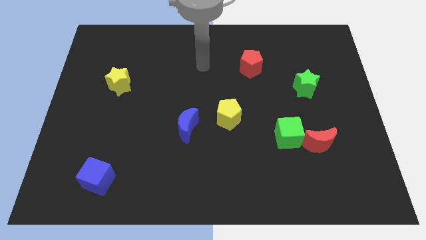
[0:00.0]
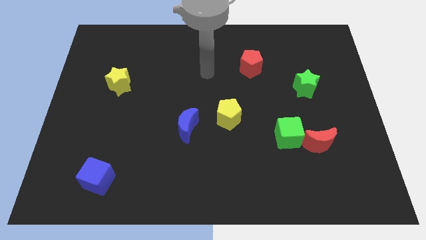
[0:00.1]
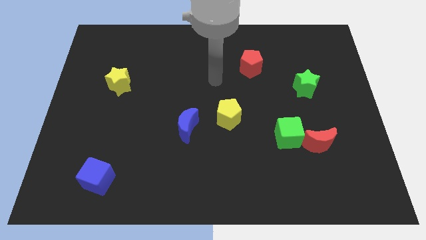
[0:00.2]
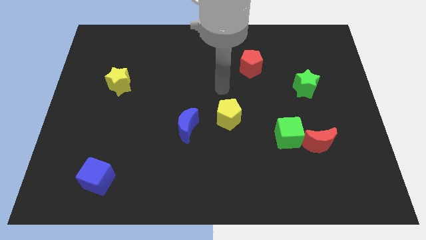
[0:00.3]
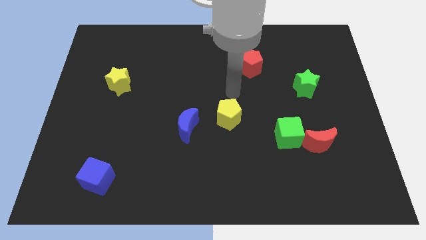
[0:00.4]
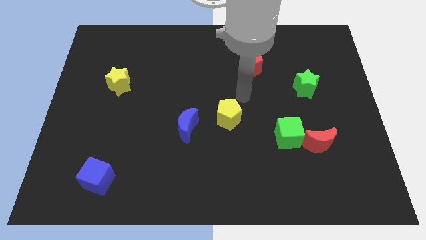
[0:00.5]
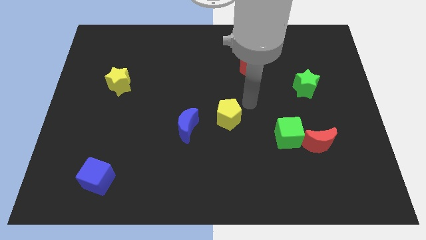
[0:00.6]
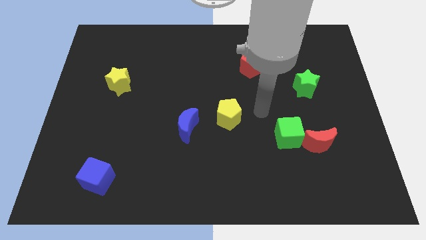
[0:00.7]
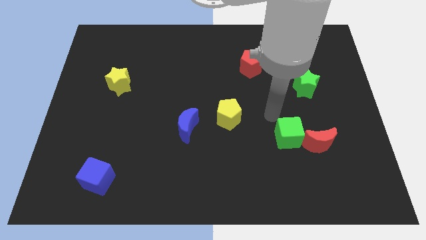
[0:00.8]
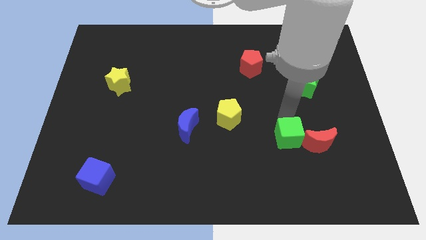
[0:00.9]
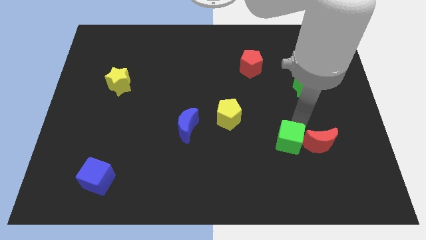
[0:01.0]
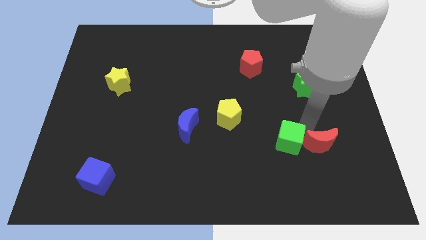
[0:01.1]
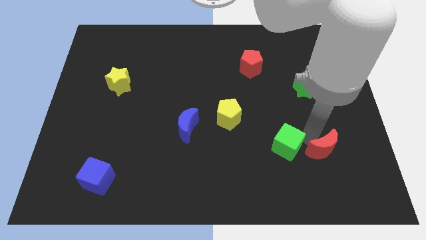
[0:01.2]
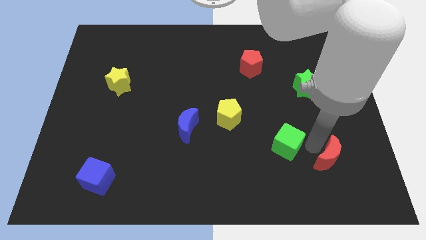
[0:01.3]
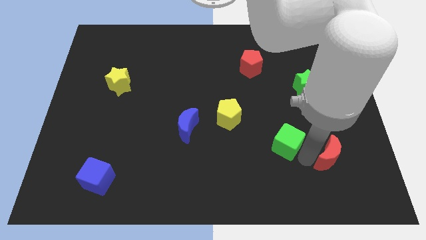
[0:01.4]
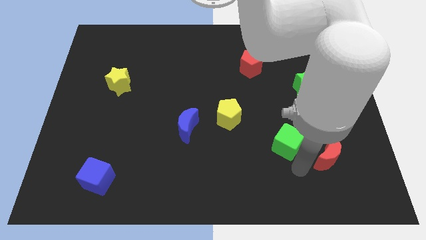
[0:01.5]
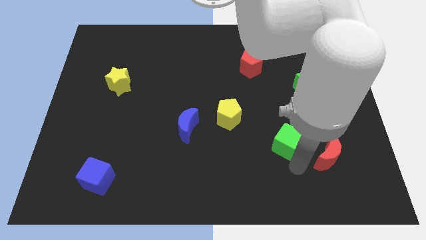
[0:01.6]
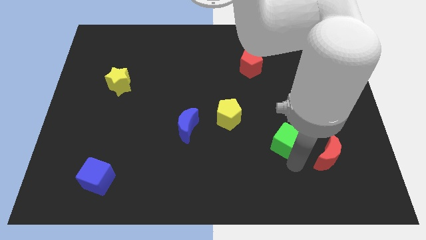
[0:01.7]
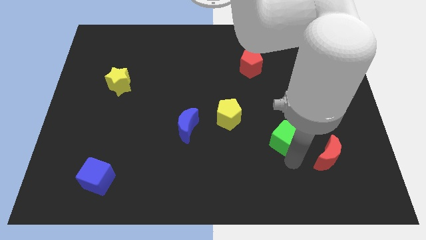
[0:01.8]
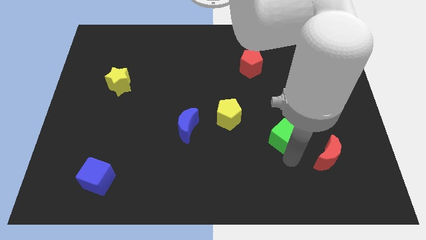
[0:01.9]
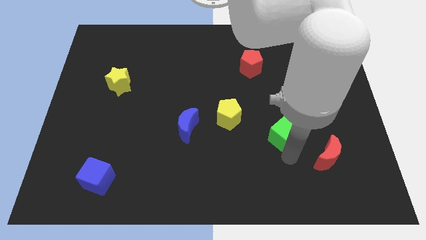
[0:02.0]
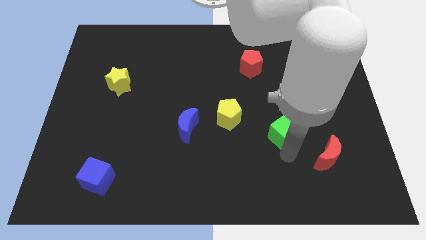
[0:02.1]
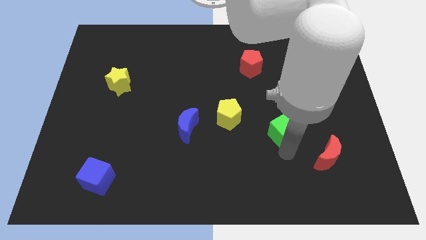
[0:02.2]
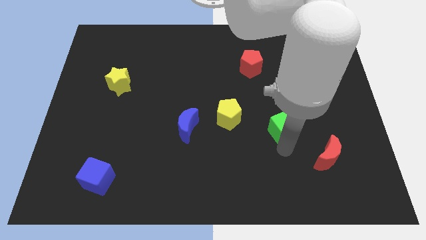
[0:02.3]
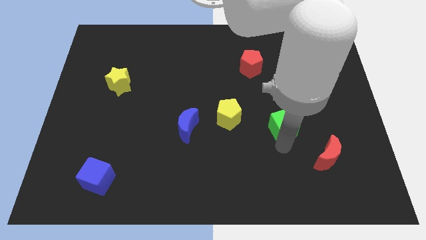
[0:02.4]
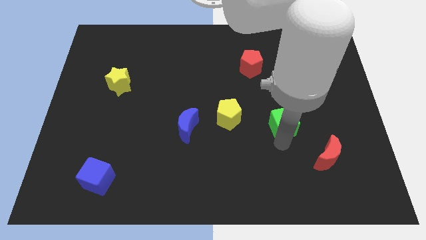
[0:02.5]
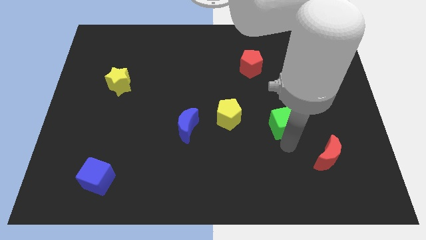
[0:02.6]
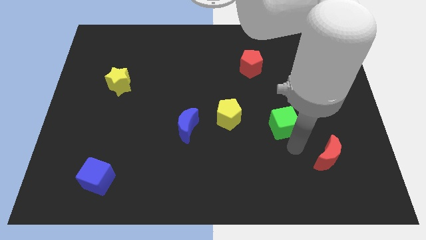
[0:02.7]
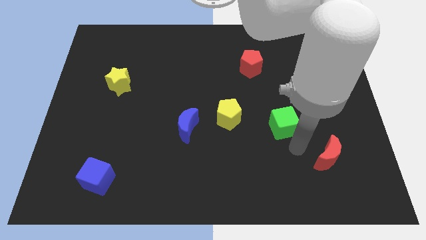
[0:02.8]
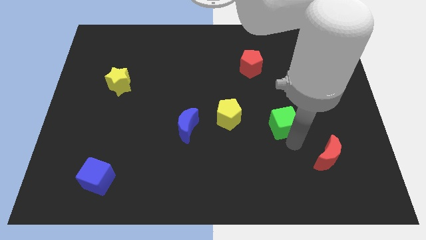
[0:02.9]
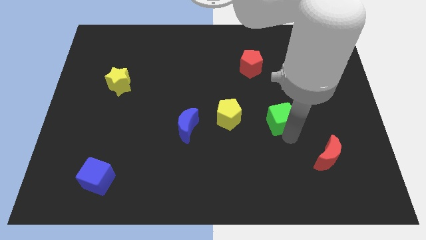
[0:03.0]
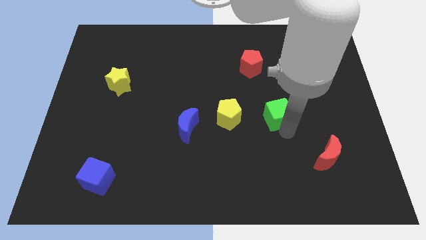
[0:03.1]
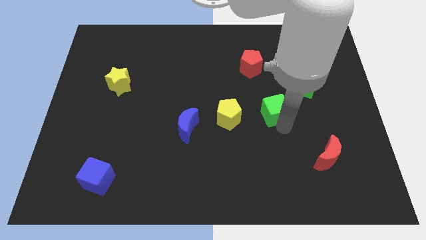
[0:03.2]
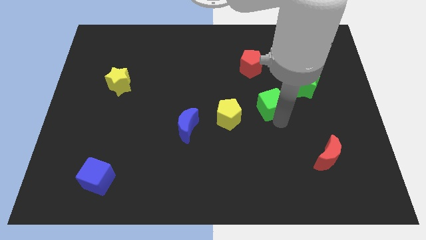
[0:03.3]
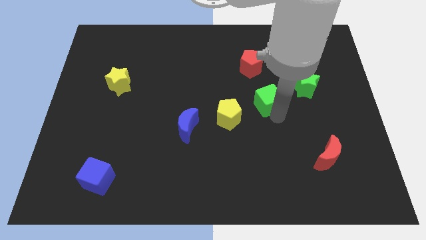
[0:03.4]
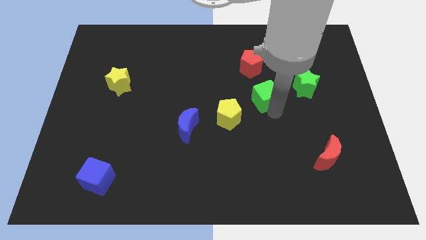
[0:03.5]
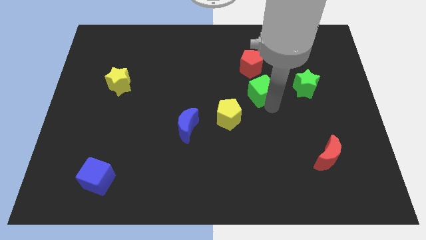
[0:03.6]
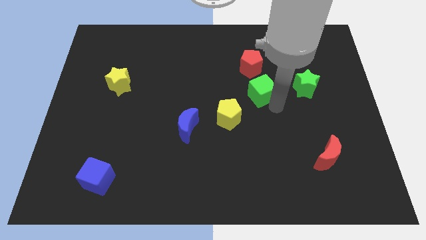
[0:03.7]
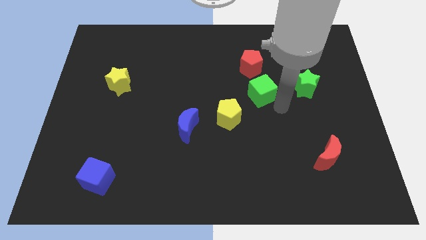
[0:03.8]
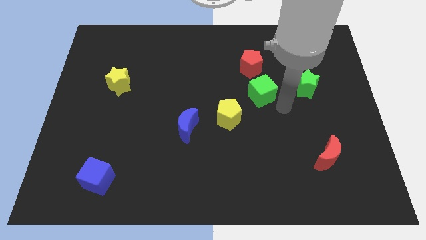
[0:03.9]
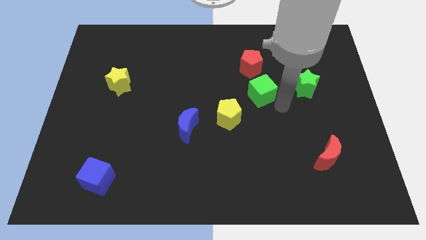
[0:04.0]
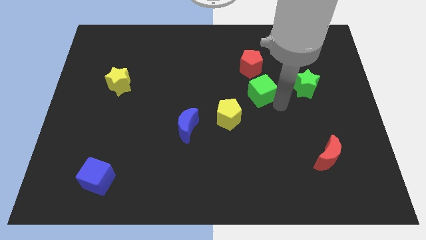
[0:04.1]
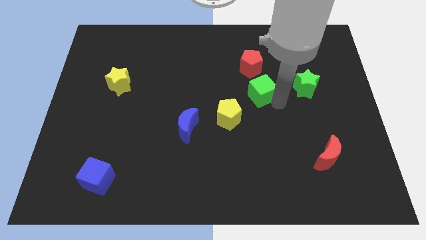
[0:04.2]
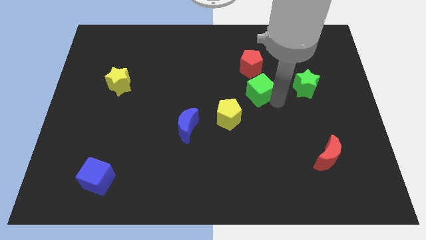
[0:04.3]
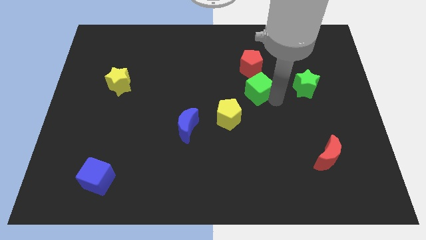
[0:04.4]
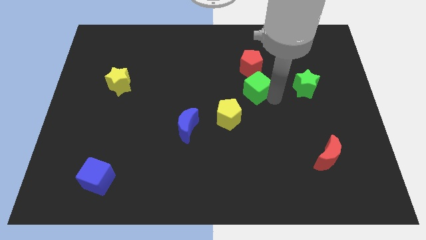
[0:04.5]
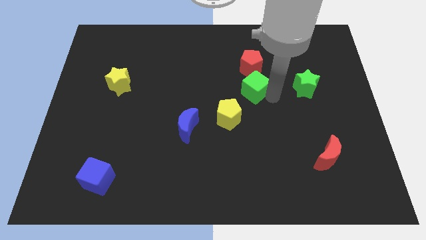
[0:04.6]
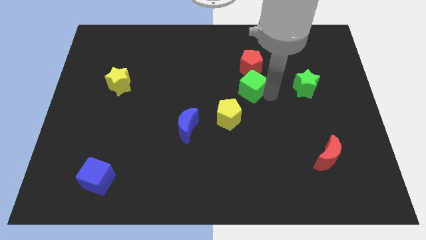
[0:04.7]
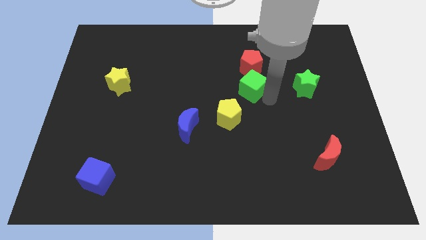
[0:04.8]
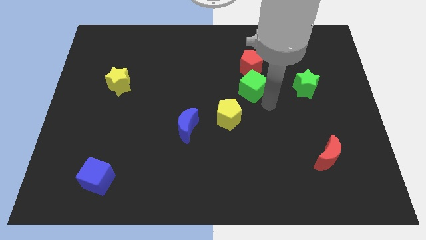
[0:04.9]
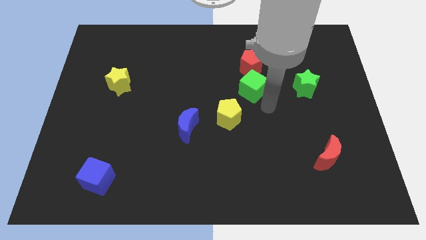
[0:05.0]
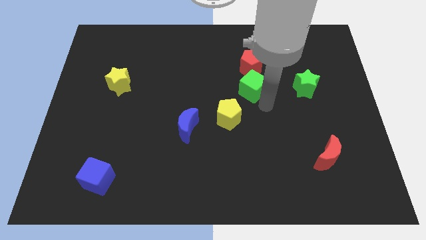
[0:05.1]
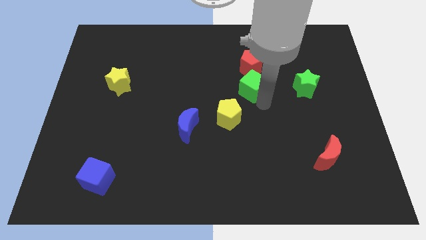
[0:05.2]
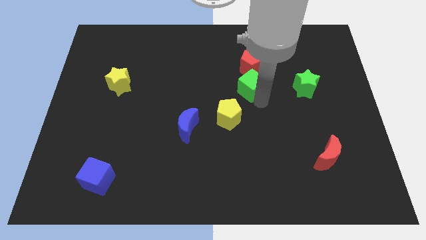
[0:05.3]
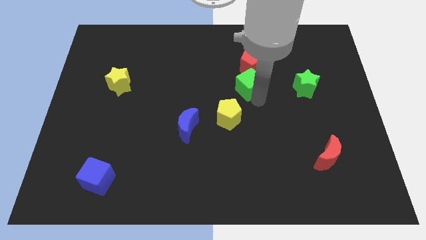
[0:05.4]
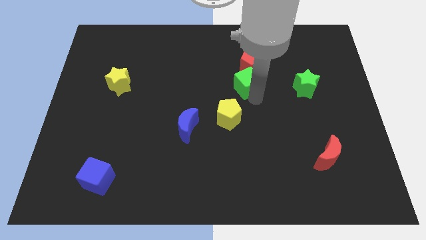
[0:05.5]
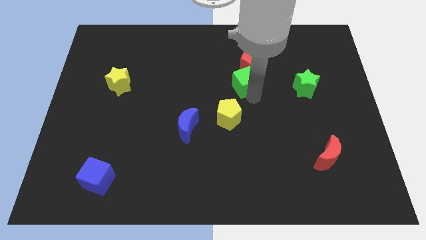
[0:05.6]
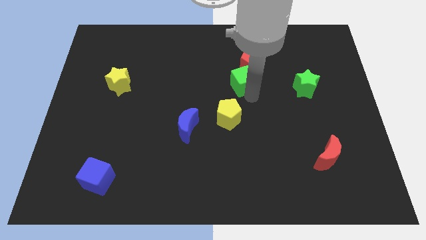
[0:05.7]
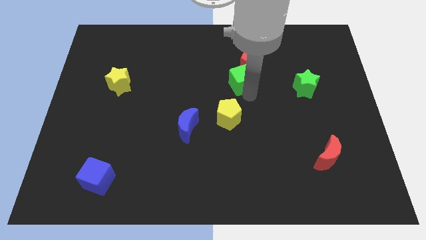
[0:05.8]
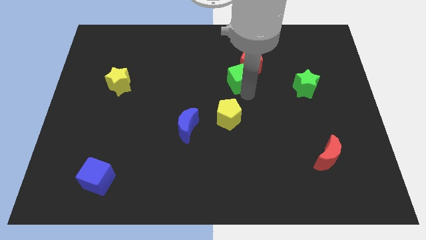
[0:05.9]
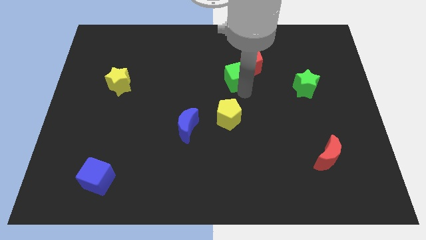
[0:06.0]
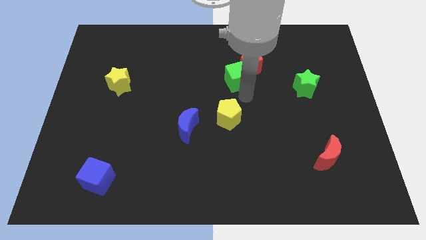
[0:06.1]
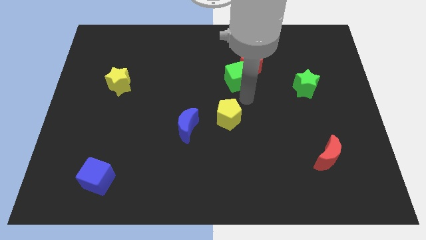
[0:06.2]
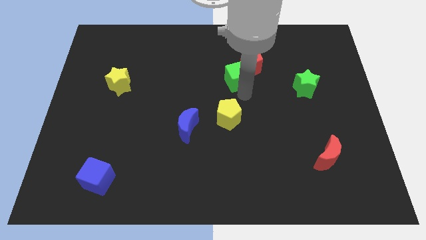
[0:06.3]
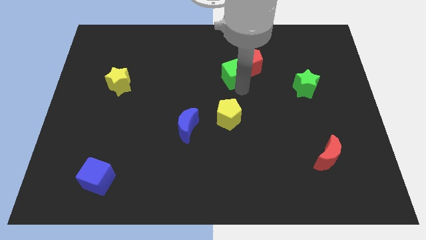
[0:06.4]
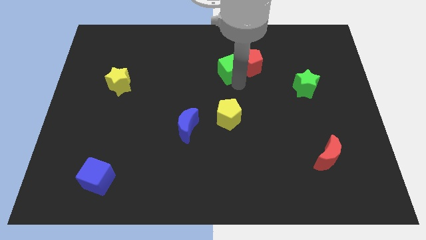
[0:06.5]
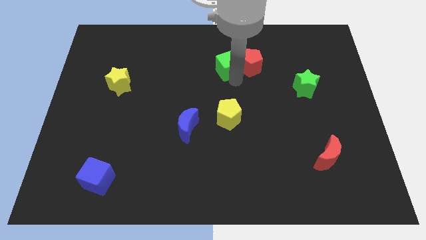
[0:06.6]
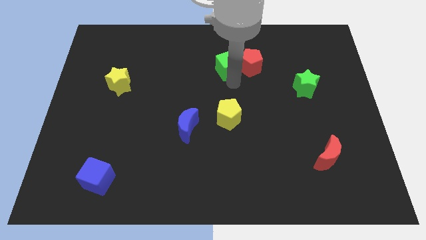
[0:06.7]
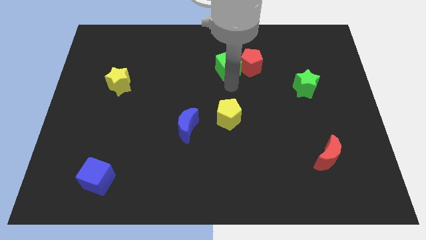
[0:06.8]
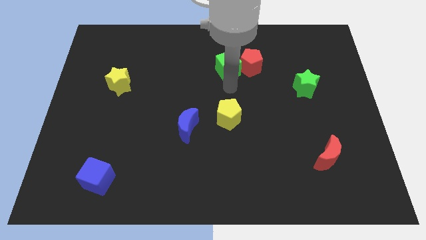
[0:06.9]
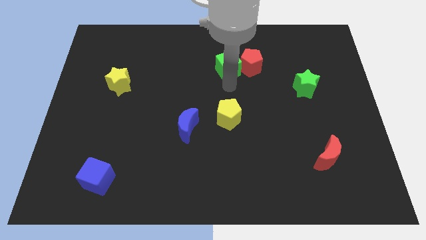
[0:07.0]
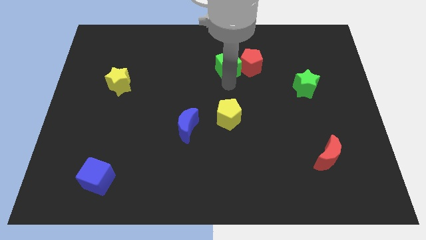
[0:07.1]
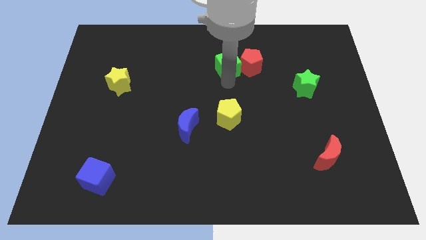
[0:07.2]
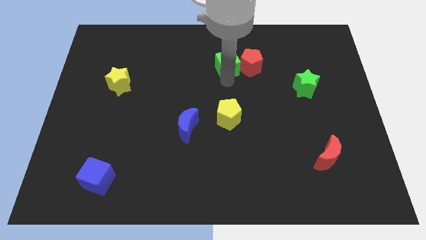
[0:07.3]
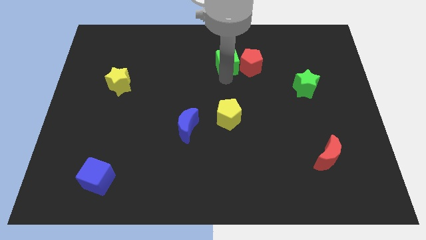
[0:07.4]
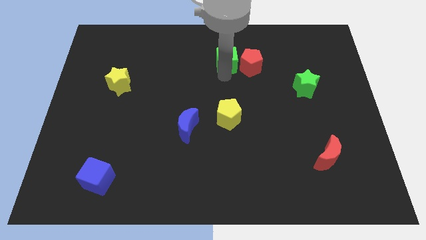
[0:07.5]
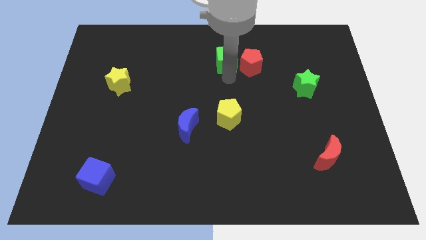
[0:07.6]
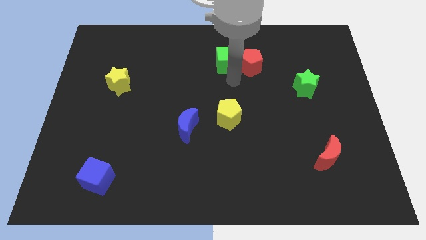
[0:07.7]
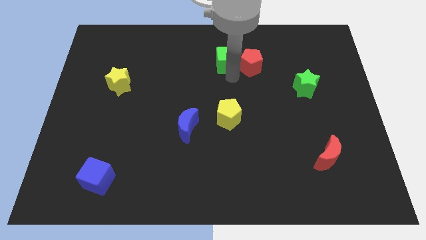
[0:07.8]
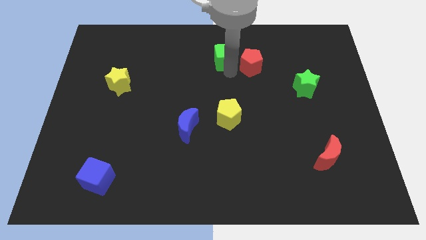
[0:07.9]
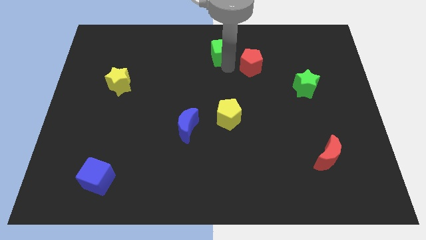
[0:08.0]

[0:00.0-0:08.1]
slide the green cube to the towards your base
